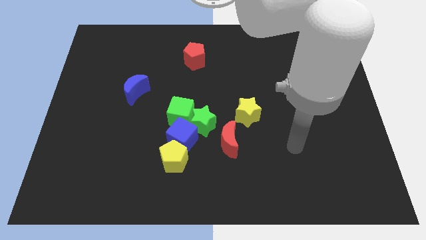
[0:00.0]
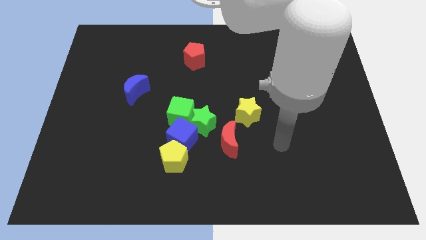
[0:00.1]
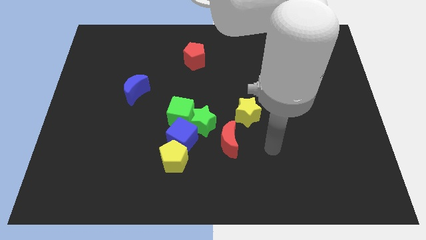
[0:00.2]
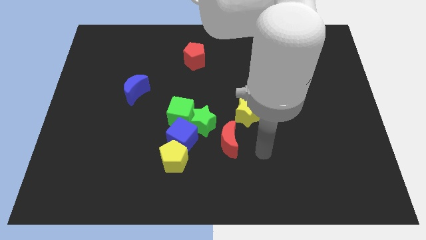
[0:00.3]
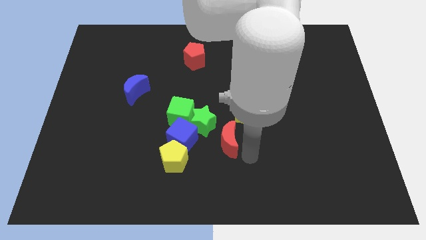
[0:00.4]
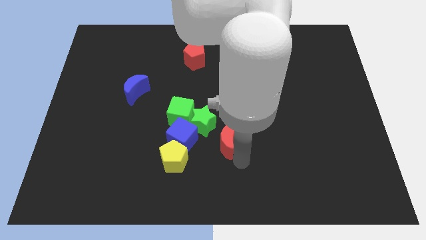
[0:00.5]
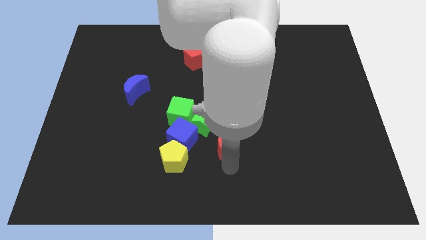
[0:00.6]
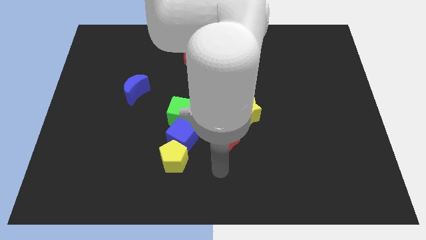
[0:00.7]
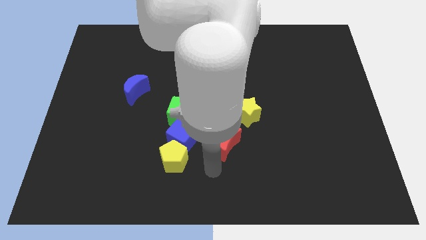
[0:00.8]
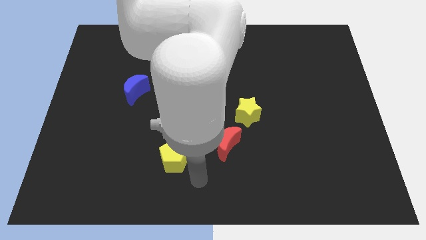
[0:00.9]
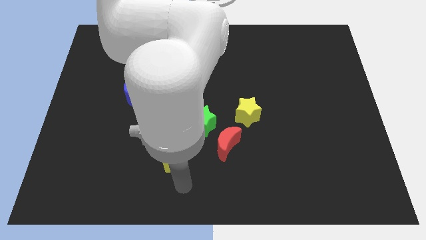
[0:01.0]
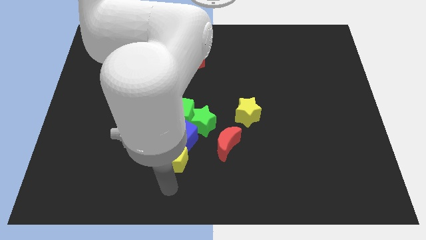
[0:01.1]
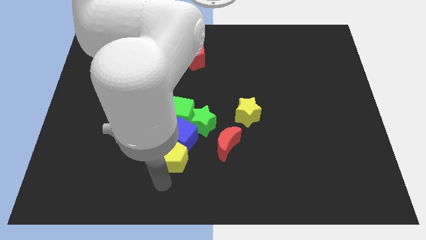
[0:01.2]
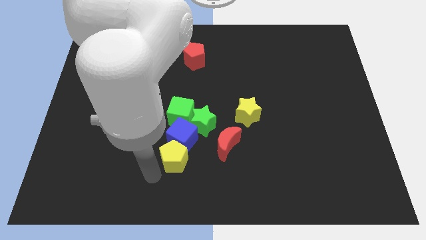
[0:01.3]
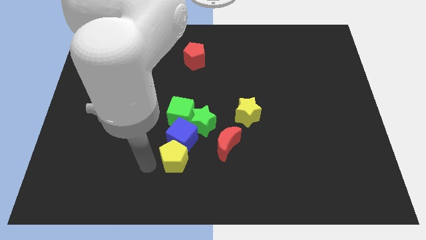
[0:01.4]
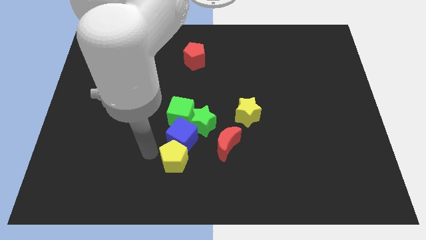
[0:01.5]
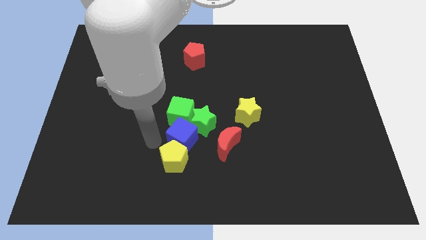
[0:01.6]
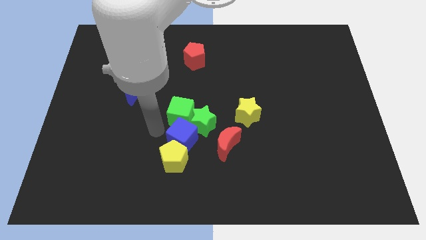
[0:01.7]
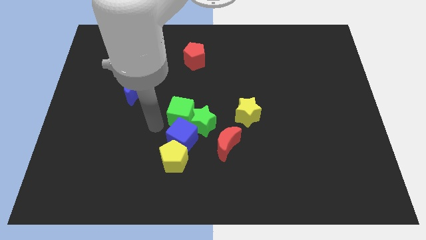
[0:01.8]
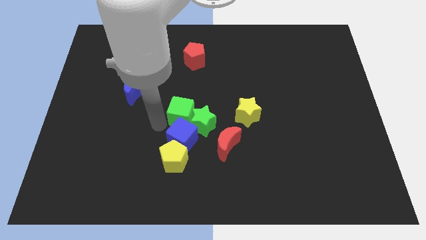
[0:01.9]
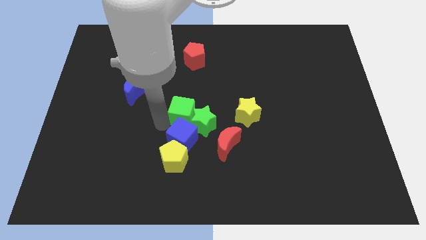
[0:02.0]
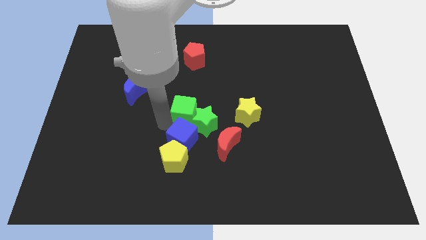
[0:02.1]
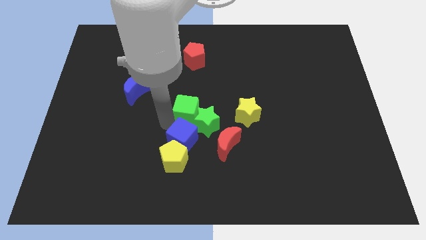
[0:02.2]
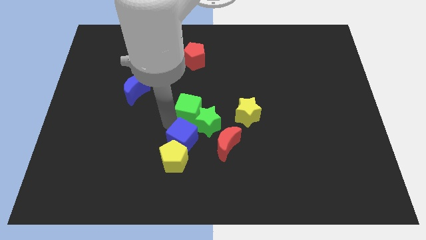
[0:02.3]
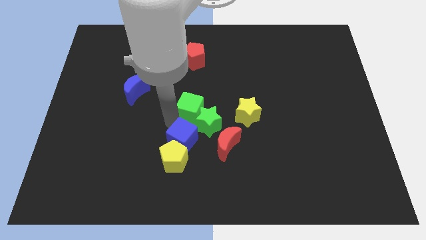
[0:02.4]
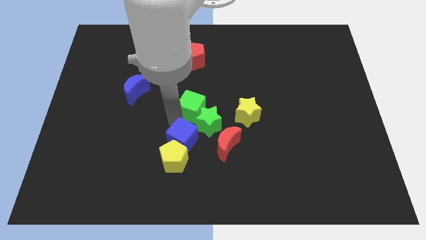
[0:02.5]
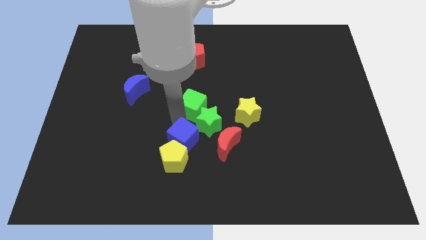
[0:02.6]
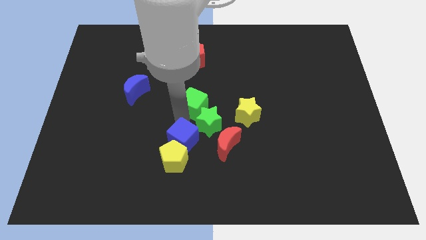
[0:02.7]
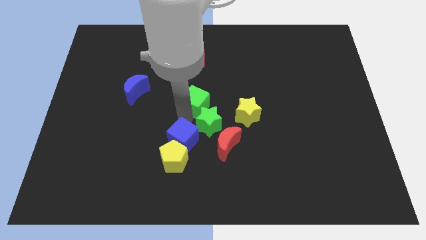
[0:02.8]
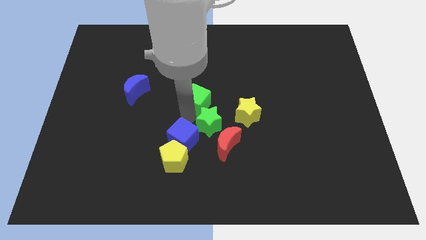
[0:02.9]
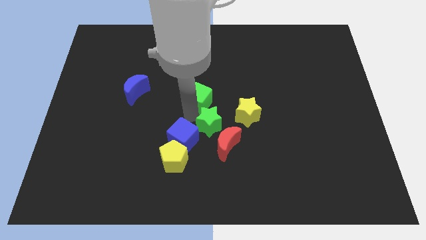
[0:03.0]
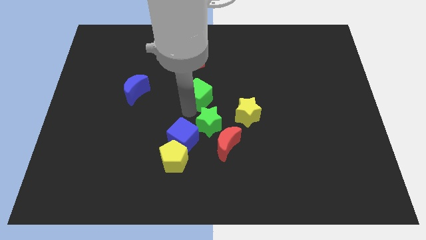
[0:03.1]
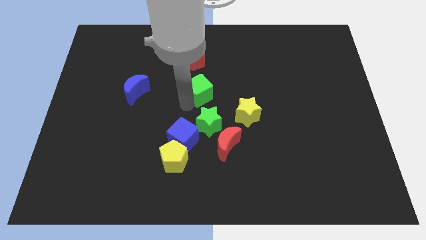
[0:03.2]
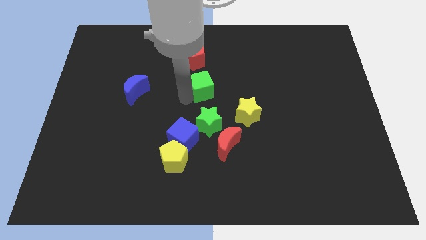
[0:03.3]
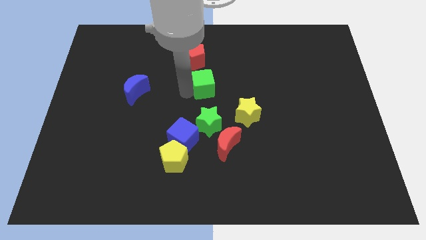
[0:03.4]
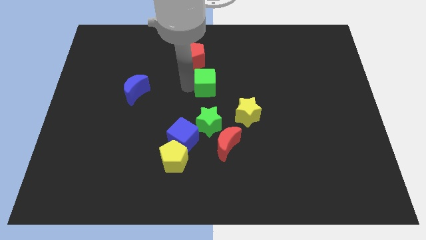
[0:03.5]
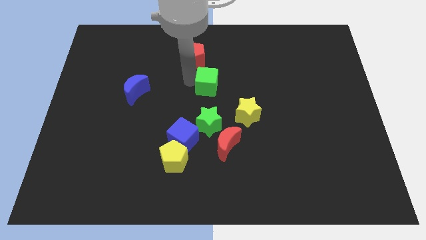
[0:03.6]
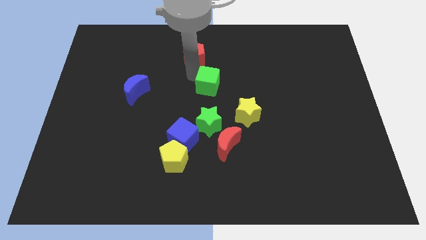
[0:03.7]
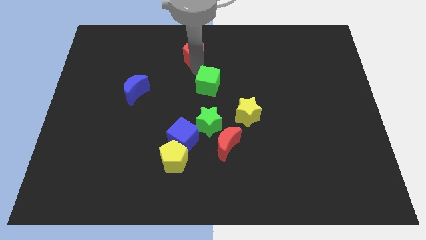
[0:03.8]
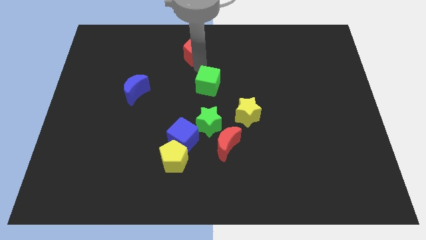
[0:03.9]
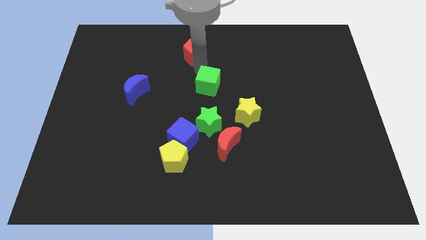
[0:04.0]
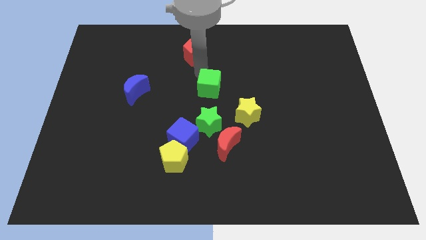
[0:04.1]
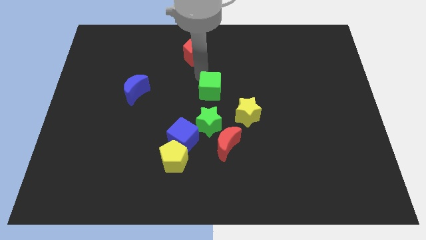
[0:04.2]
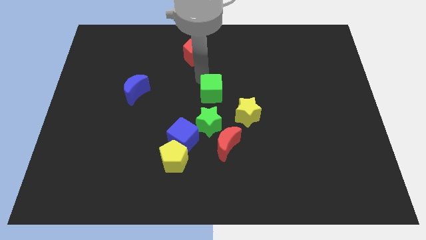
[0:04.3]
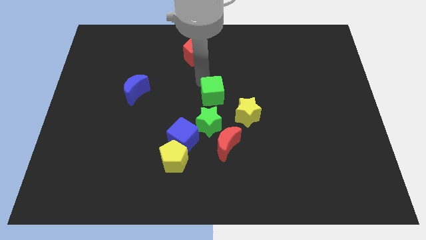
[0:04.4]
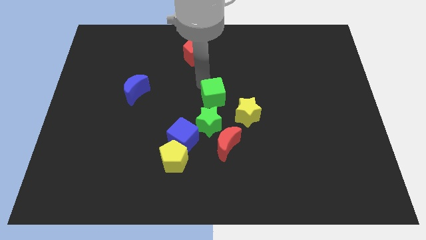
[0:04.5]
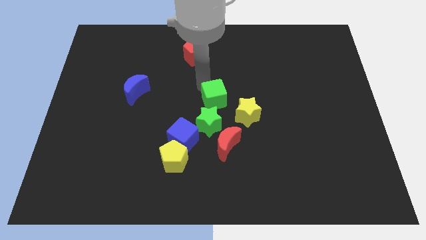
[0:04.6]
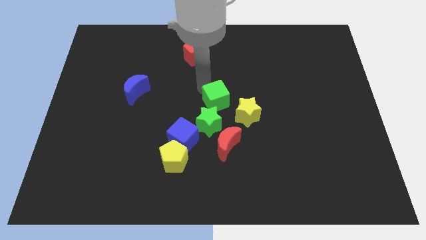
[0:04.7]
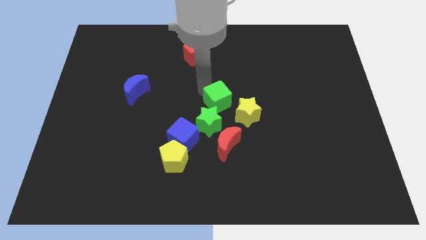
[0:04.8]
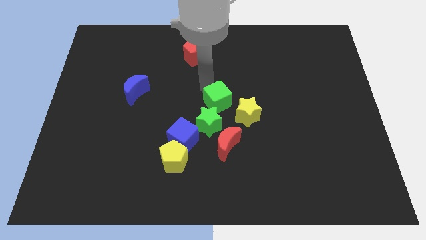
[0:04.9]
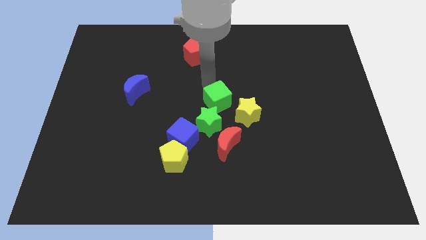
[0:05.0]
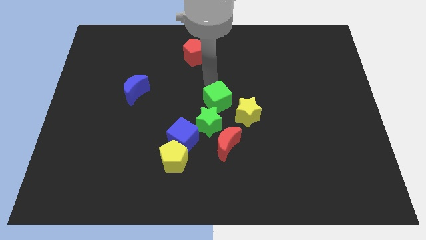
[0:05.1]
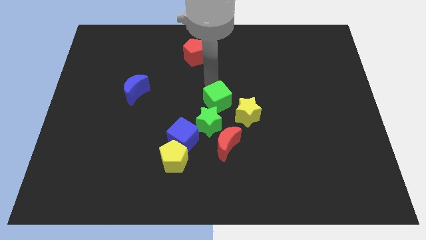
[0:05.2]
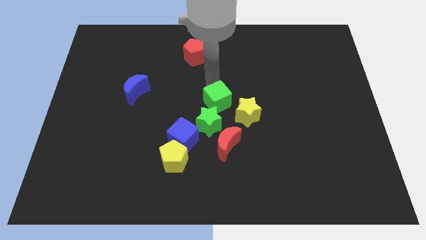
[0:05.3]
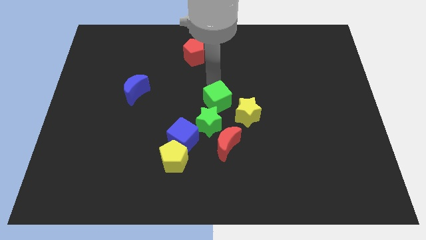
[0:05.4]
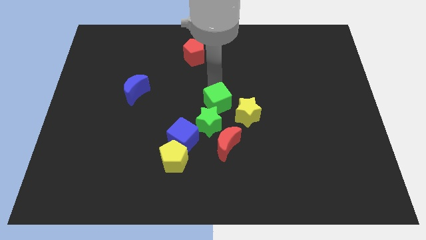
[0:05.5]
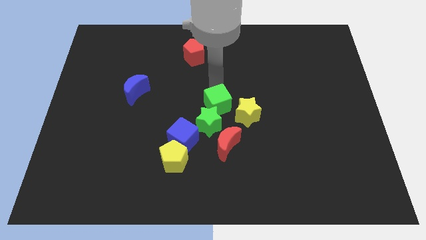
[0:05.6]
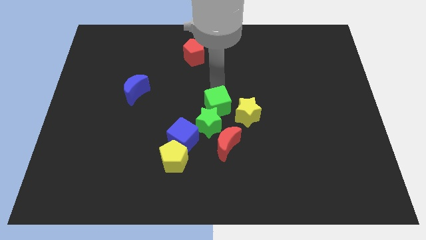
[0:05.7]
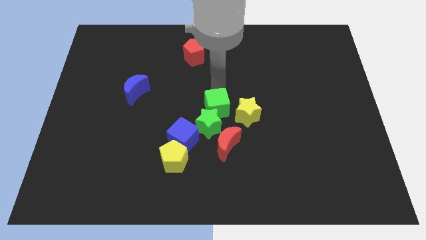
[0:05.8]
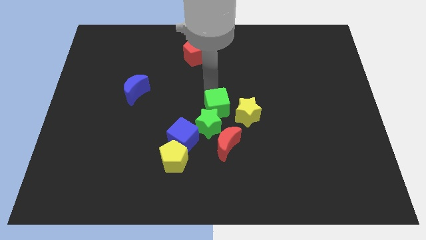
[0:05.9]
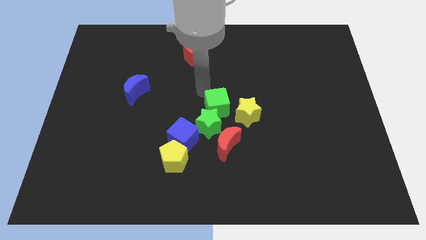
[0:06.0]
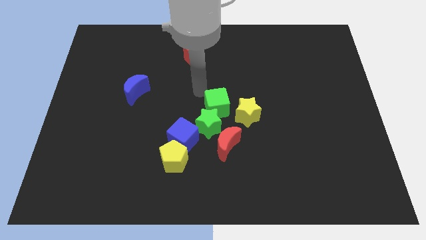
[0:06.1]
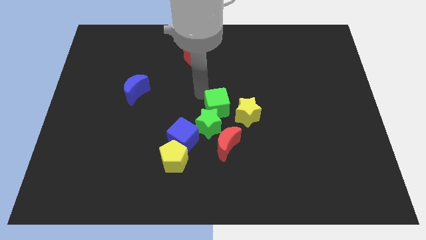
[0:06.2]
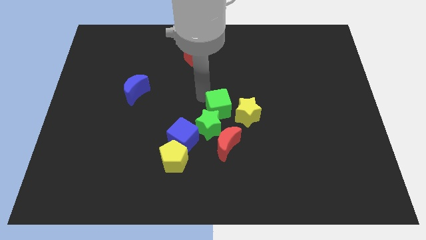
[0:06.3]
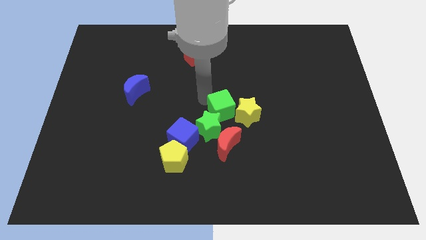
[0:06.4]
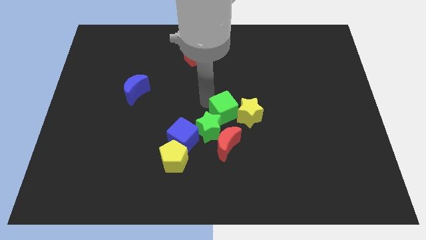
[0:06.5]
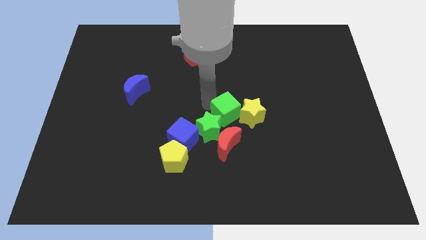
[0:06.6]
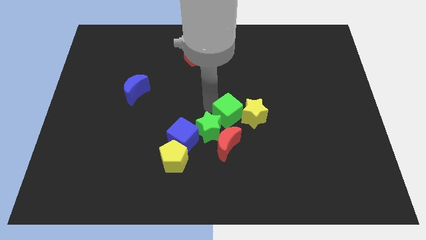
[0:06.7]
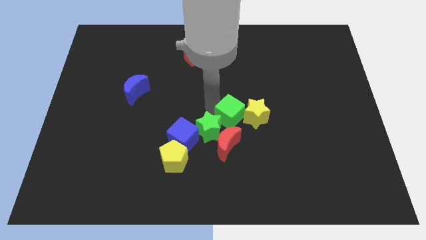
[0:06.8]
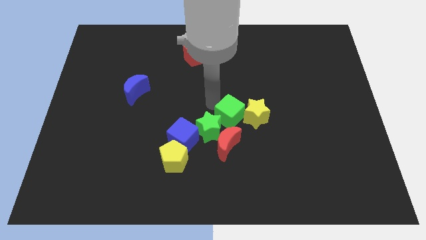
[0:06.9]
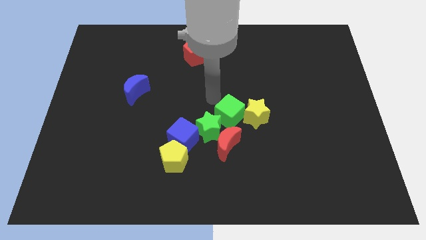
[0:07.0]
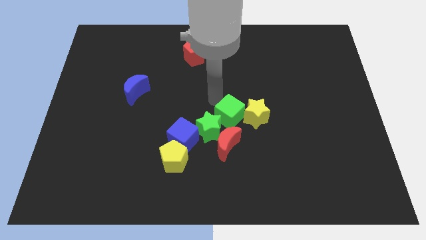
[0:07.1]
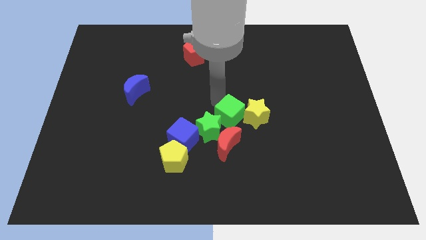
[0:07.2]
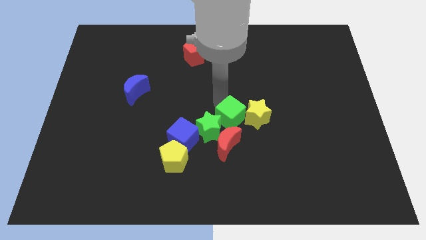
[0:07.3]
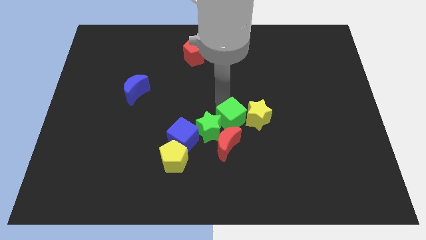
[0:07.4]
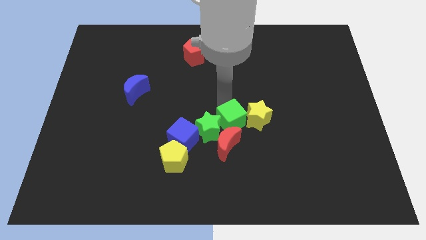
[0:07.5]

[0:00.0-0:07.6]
slide the green cube somewhat downwards and to the right
